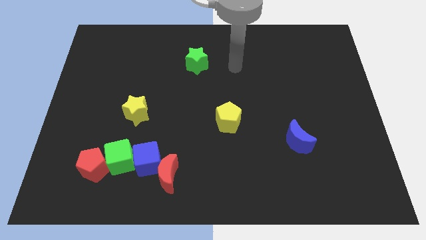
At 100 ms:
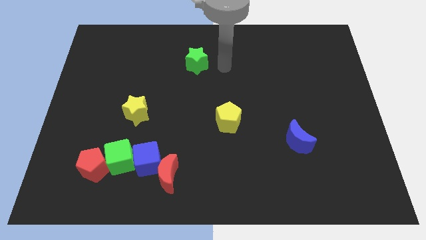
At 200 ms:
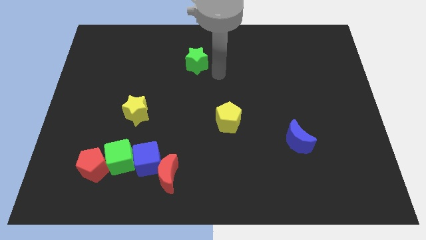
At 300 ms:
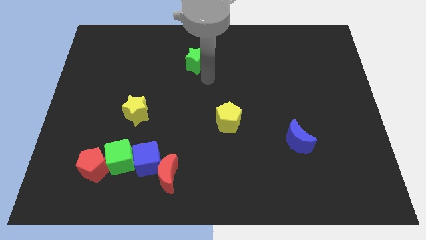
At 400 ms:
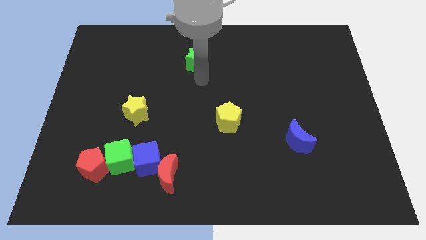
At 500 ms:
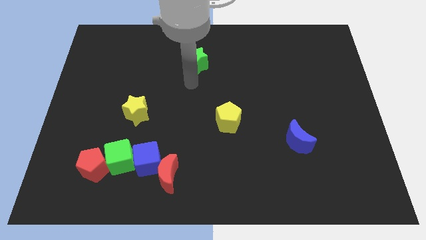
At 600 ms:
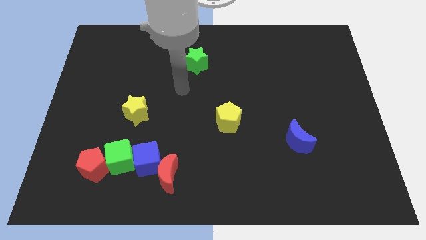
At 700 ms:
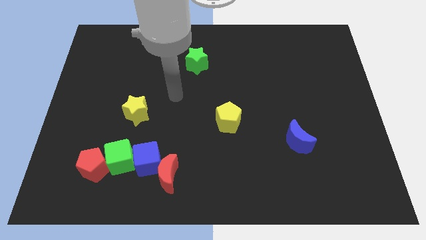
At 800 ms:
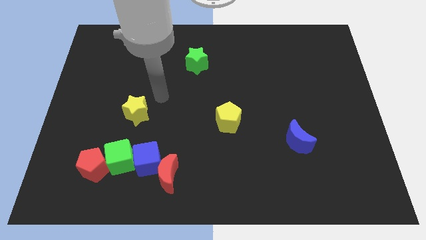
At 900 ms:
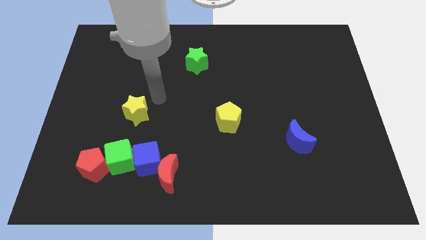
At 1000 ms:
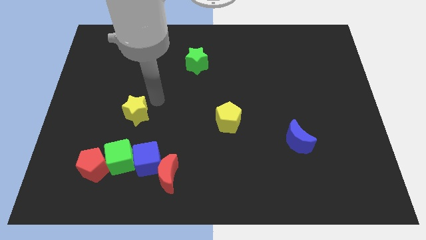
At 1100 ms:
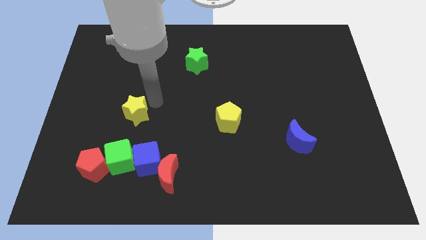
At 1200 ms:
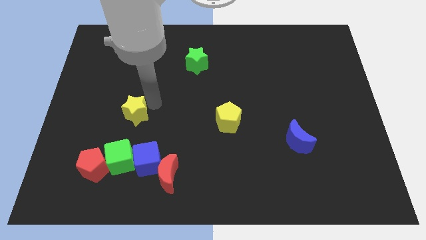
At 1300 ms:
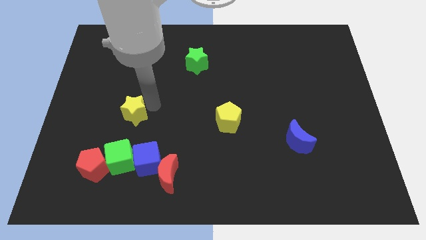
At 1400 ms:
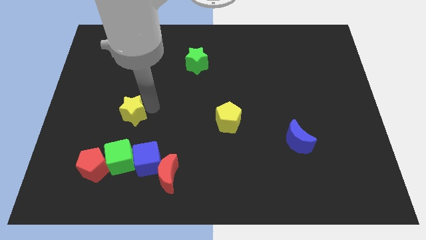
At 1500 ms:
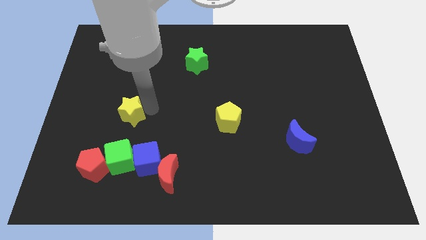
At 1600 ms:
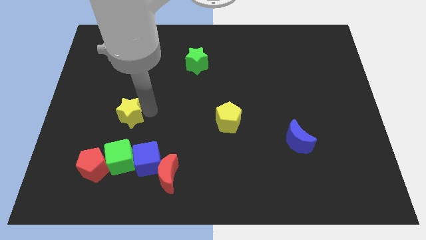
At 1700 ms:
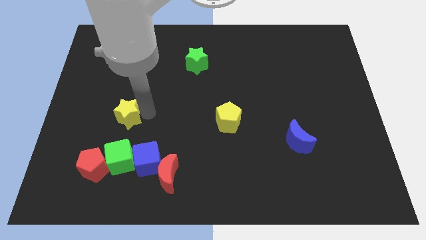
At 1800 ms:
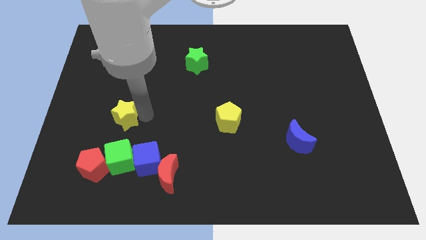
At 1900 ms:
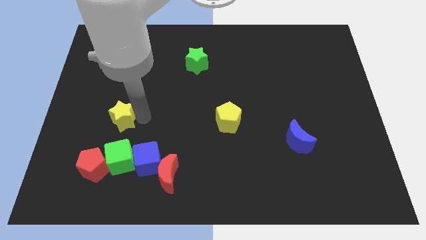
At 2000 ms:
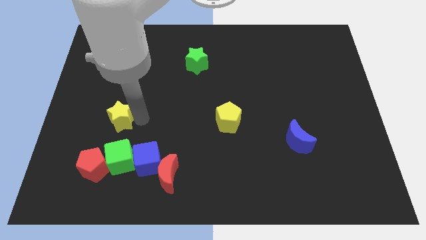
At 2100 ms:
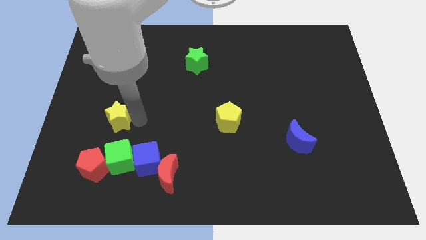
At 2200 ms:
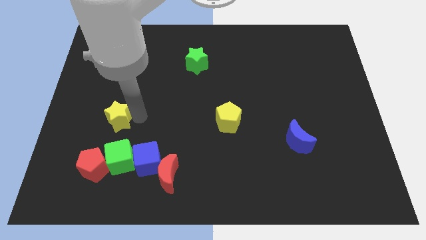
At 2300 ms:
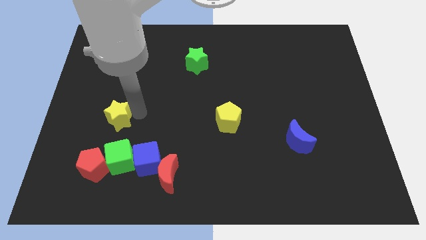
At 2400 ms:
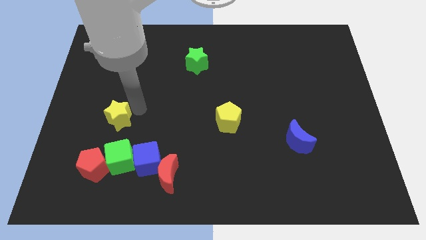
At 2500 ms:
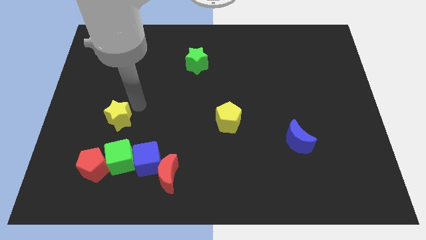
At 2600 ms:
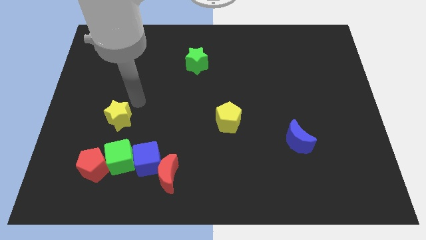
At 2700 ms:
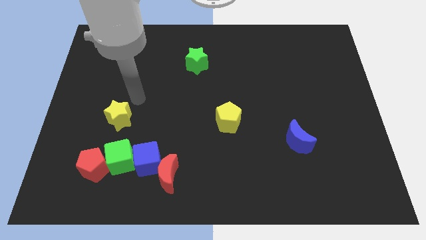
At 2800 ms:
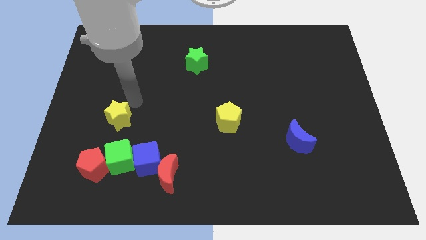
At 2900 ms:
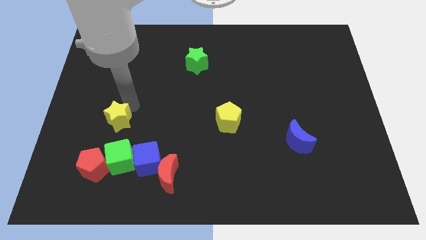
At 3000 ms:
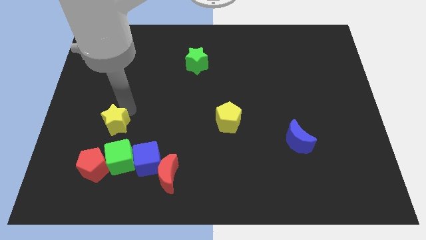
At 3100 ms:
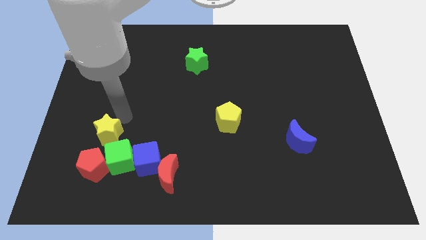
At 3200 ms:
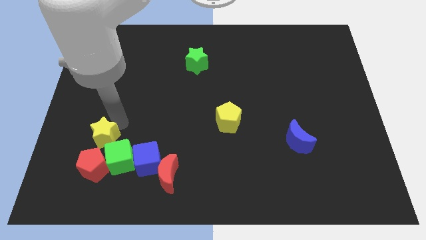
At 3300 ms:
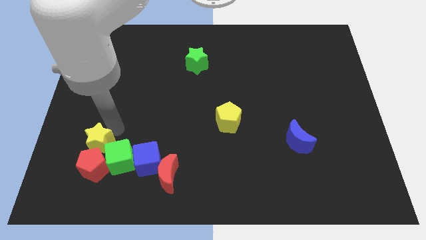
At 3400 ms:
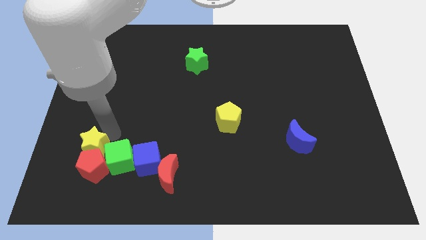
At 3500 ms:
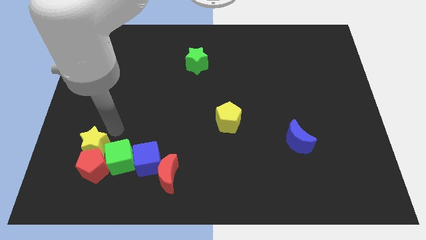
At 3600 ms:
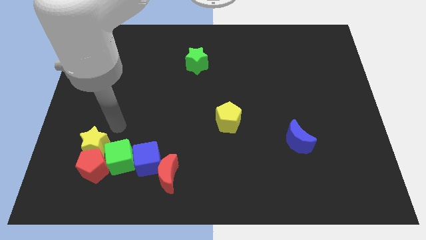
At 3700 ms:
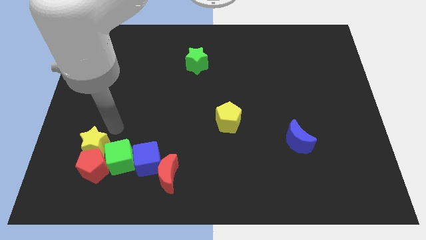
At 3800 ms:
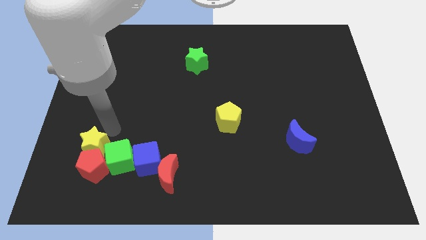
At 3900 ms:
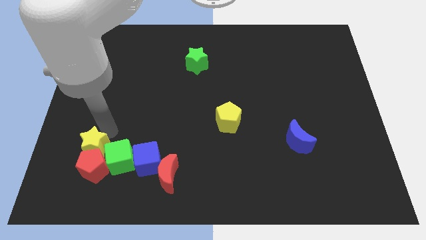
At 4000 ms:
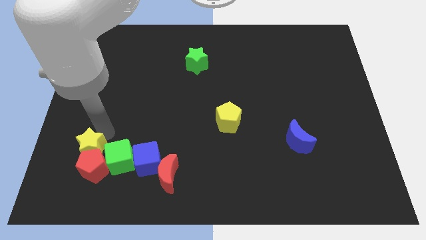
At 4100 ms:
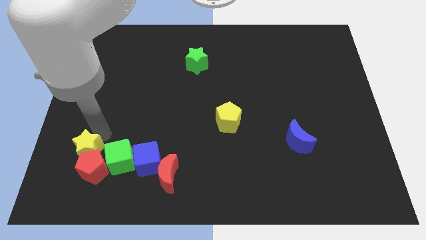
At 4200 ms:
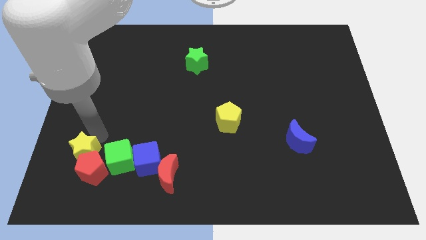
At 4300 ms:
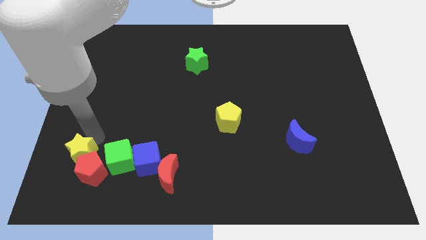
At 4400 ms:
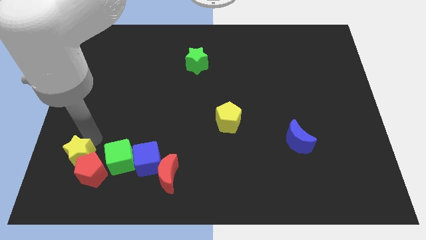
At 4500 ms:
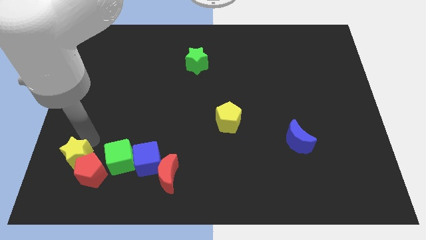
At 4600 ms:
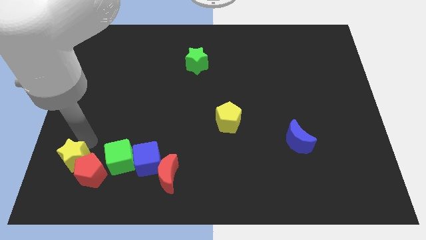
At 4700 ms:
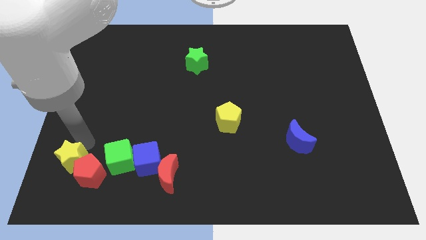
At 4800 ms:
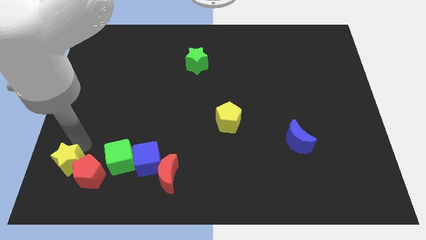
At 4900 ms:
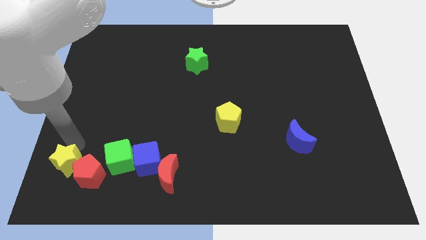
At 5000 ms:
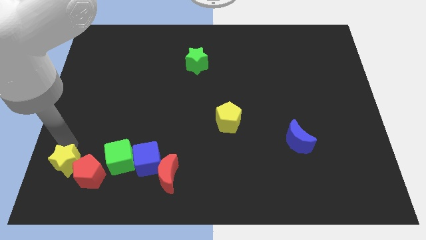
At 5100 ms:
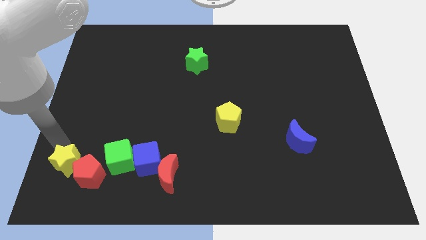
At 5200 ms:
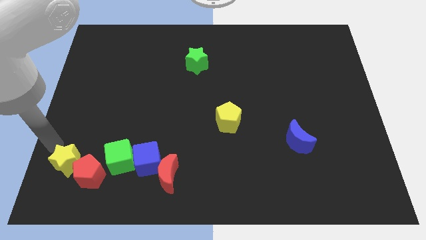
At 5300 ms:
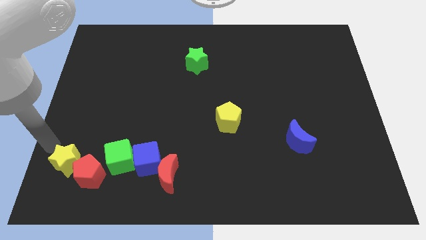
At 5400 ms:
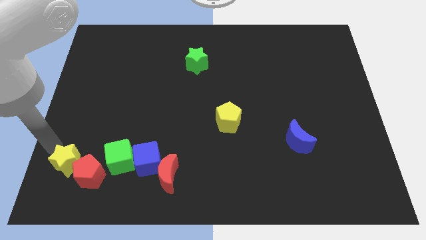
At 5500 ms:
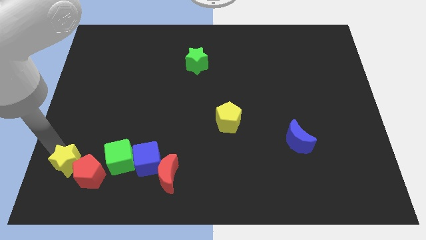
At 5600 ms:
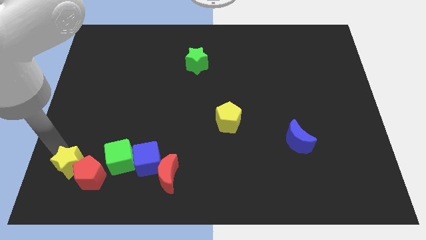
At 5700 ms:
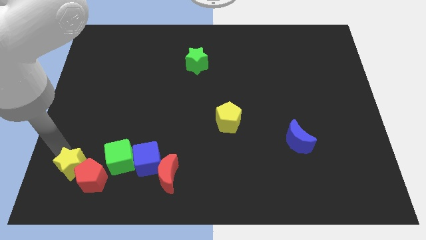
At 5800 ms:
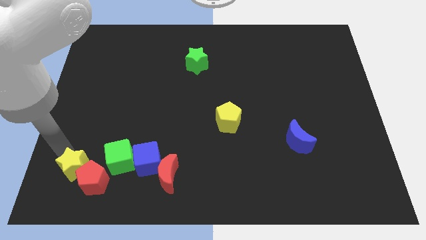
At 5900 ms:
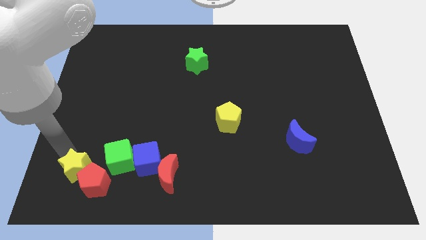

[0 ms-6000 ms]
put the yellow star to the bottom left side of the green cube

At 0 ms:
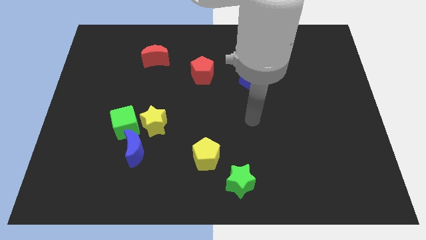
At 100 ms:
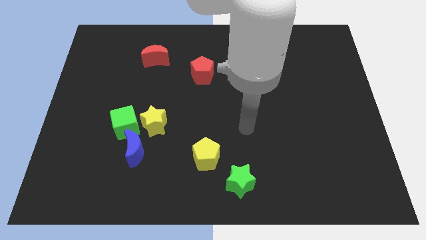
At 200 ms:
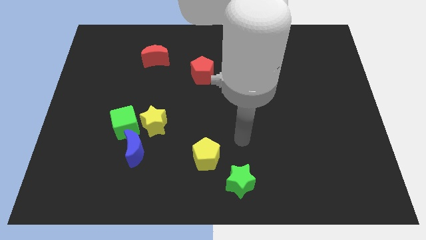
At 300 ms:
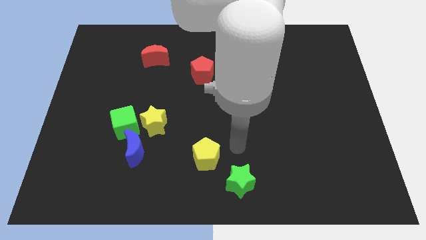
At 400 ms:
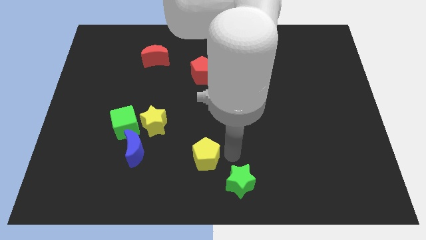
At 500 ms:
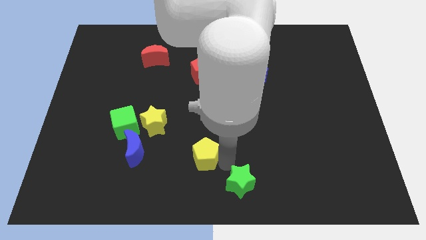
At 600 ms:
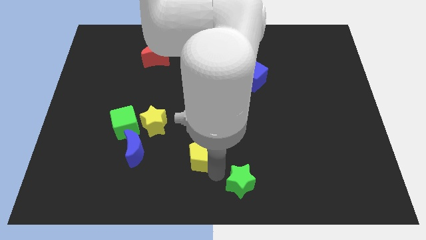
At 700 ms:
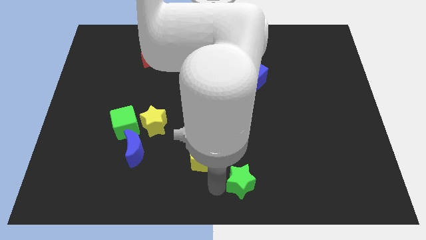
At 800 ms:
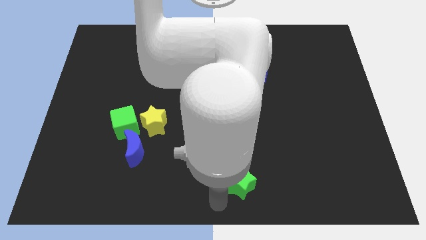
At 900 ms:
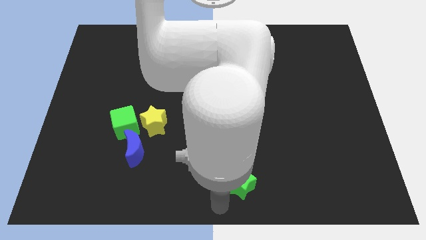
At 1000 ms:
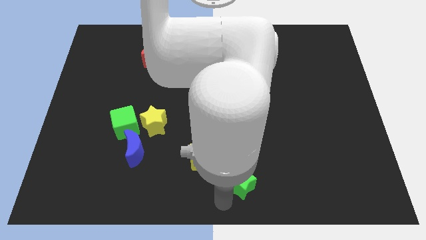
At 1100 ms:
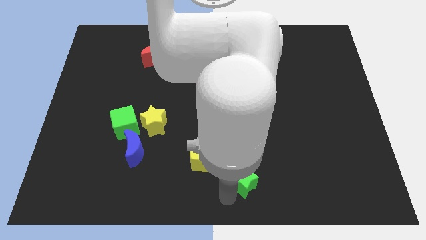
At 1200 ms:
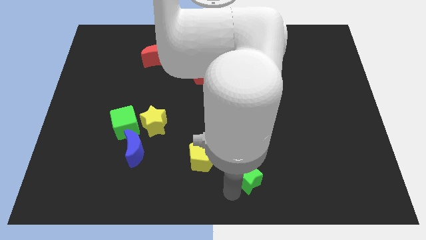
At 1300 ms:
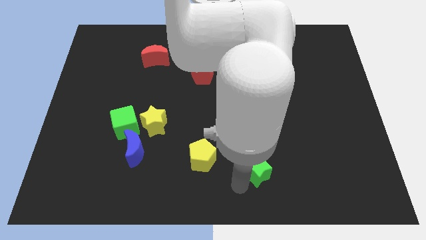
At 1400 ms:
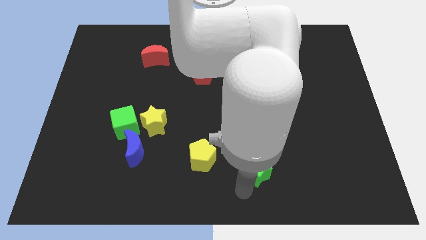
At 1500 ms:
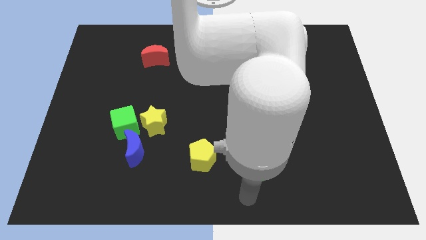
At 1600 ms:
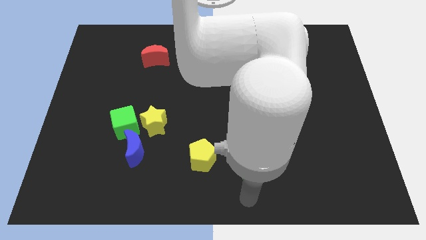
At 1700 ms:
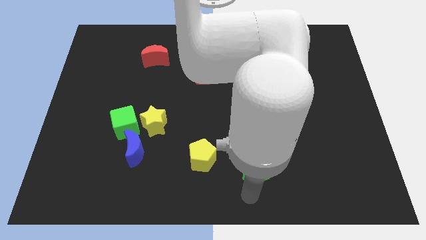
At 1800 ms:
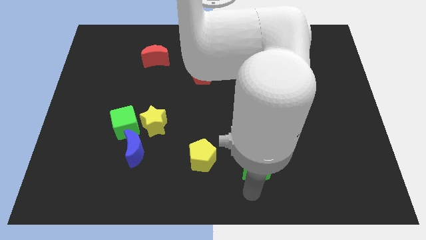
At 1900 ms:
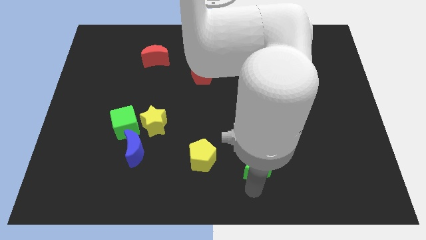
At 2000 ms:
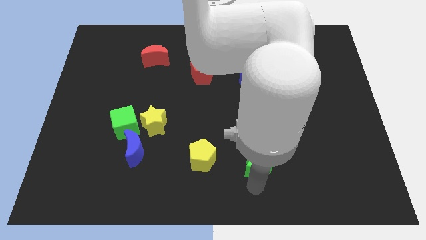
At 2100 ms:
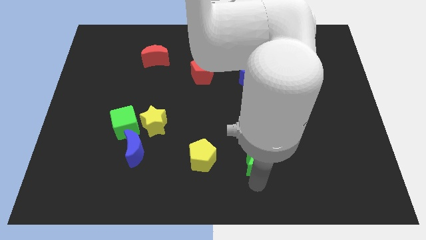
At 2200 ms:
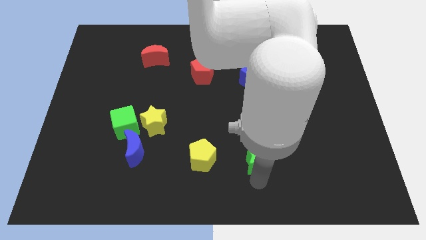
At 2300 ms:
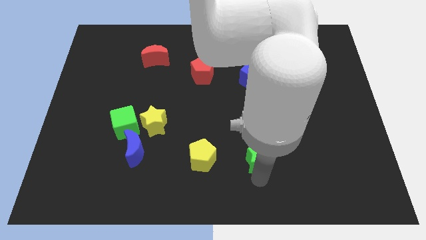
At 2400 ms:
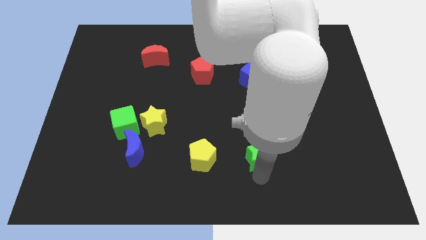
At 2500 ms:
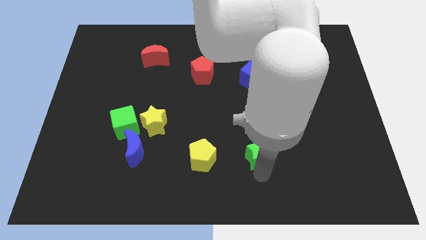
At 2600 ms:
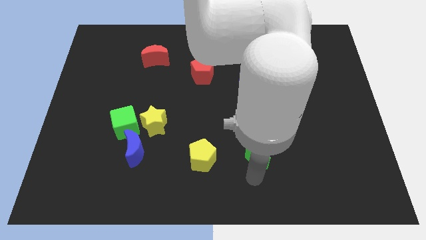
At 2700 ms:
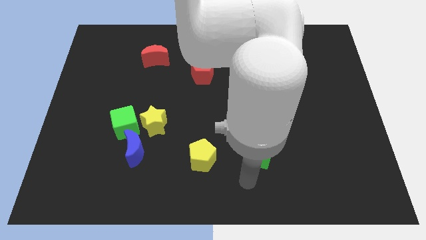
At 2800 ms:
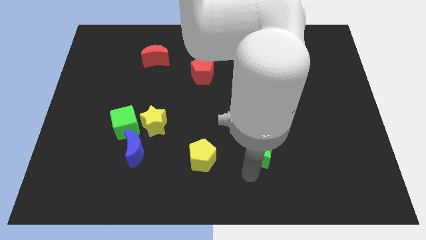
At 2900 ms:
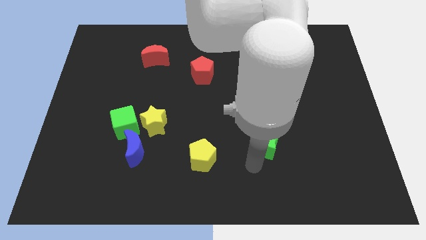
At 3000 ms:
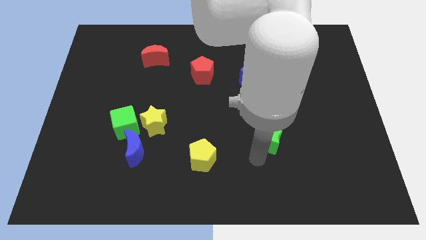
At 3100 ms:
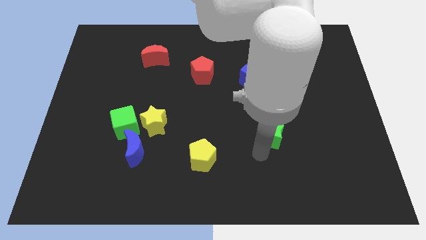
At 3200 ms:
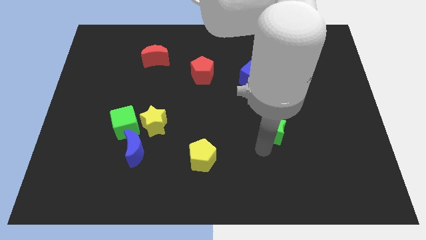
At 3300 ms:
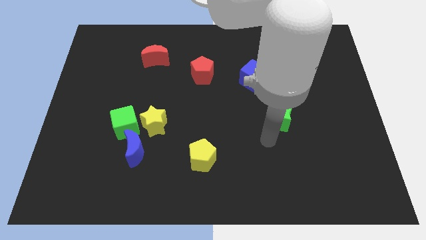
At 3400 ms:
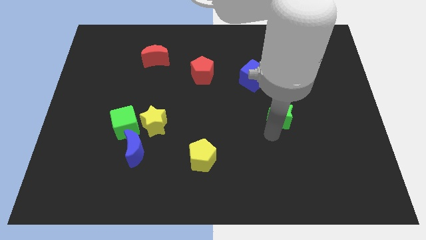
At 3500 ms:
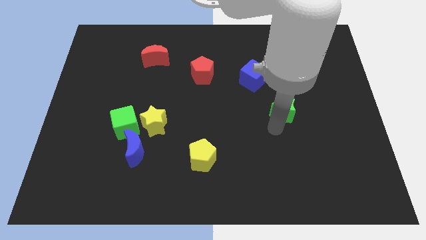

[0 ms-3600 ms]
move the green star to the bottom right of the blue cube
